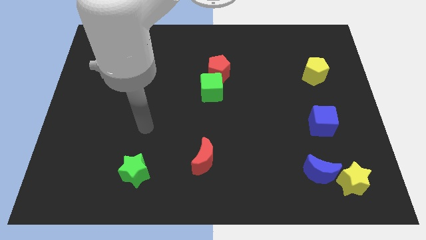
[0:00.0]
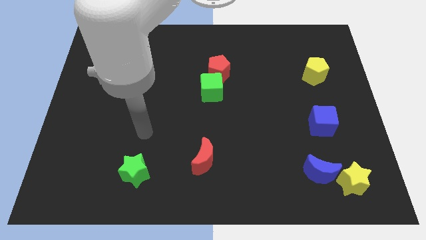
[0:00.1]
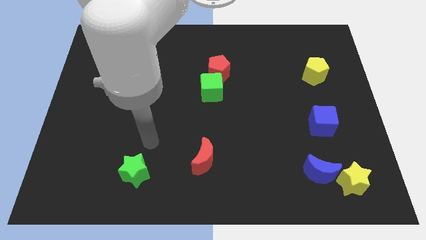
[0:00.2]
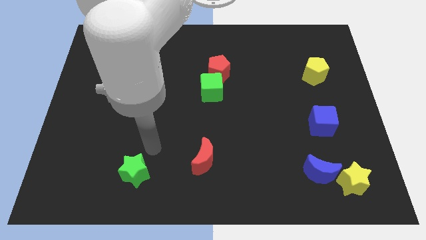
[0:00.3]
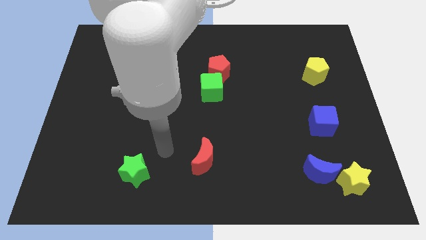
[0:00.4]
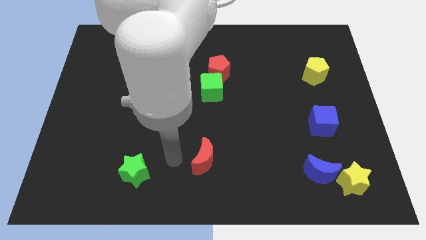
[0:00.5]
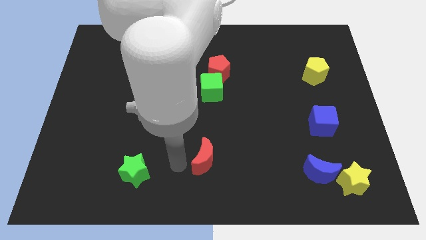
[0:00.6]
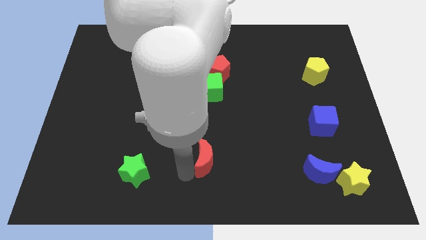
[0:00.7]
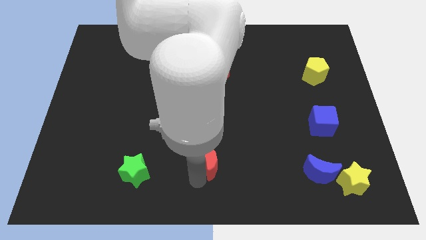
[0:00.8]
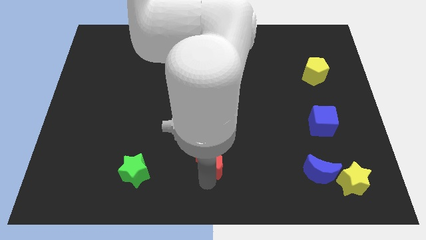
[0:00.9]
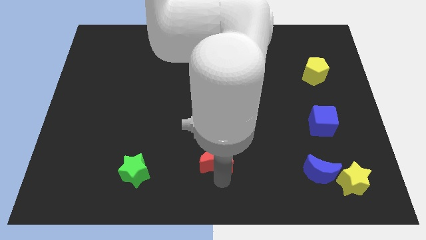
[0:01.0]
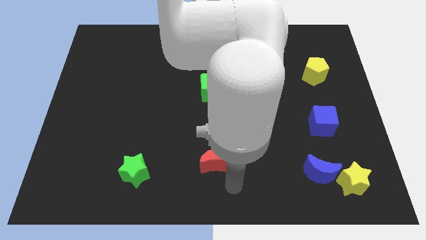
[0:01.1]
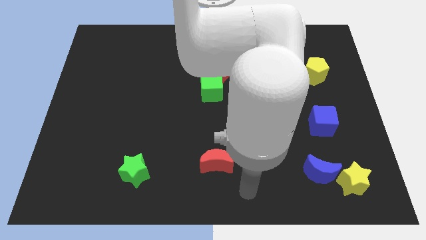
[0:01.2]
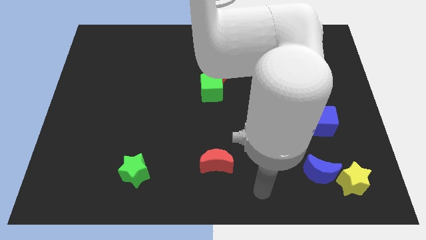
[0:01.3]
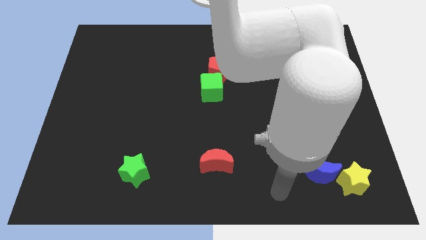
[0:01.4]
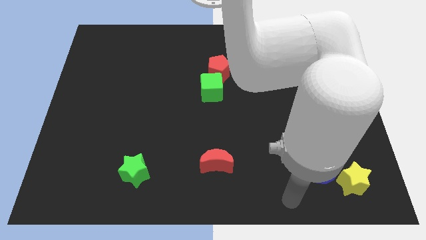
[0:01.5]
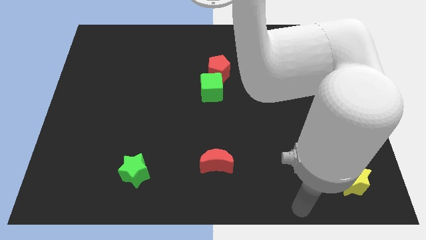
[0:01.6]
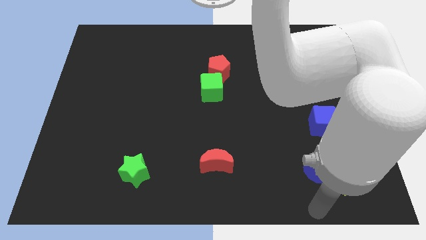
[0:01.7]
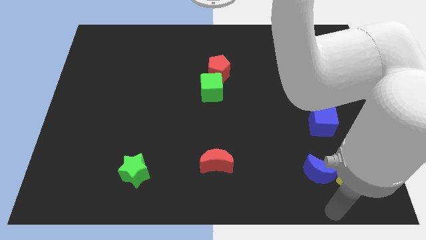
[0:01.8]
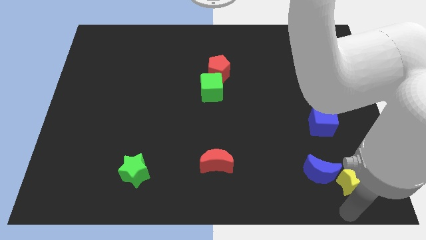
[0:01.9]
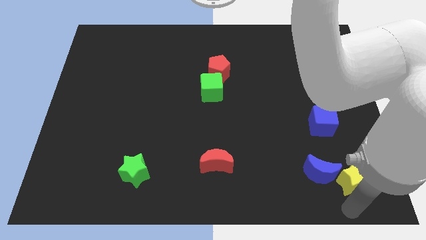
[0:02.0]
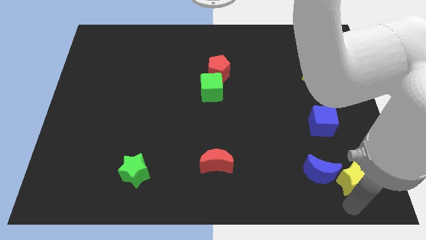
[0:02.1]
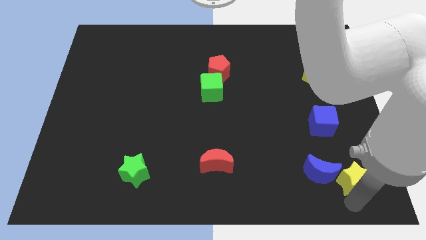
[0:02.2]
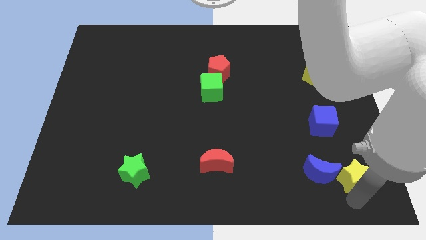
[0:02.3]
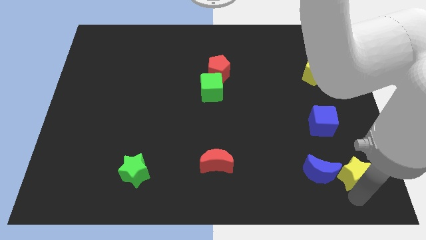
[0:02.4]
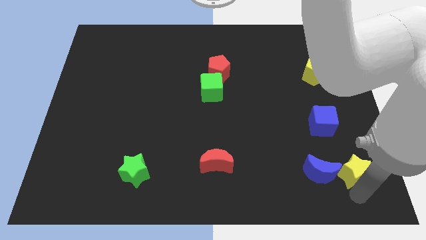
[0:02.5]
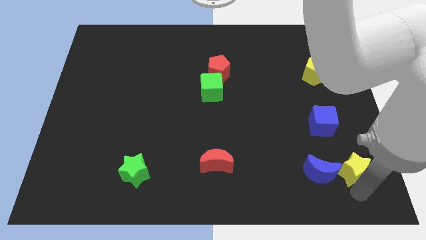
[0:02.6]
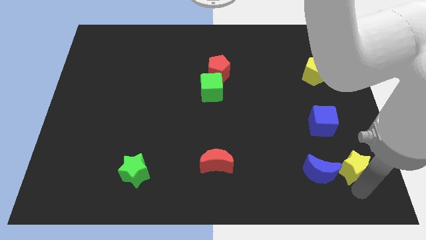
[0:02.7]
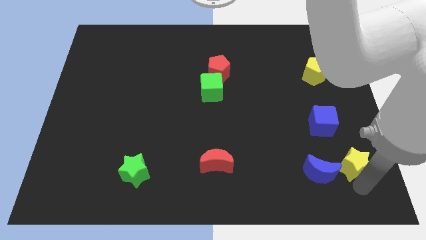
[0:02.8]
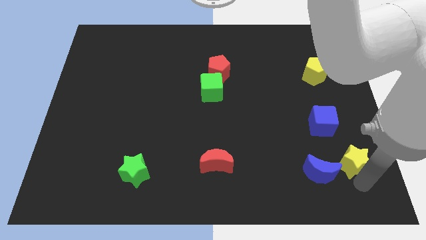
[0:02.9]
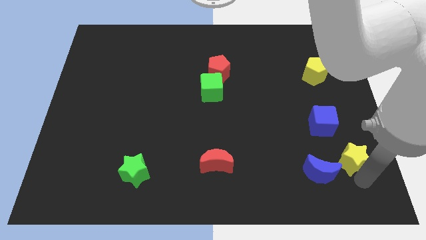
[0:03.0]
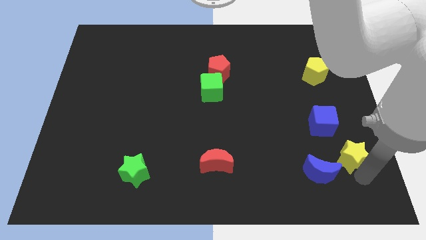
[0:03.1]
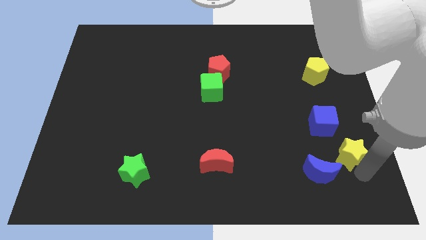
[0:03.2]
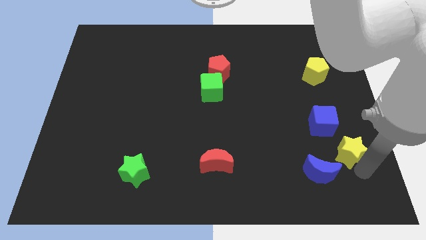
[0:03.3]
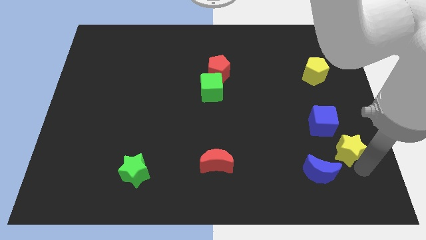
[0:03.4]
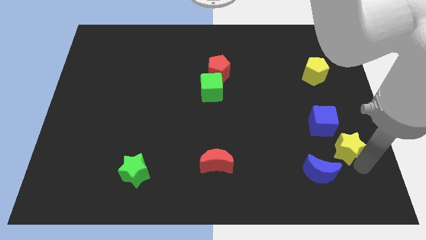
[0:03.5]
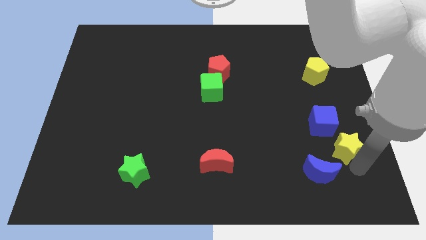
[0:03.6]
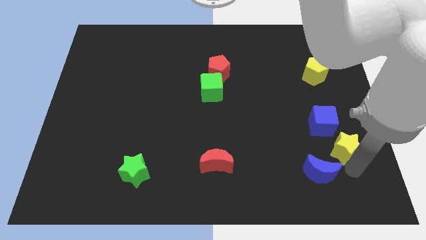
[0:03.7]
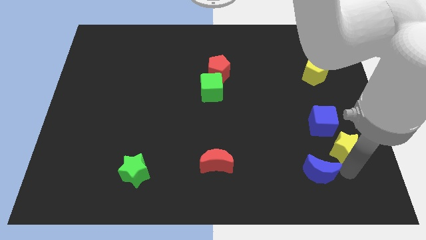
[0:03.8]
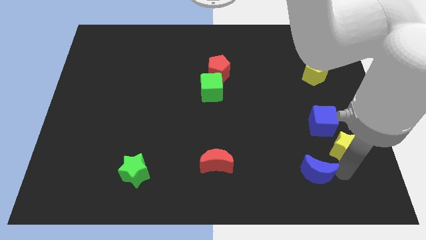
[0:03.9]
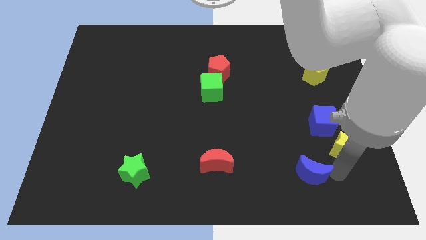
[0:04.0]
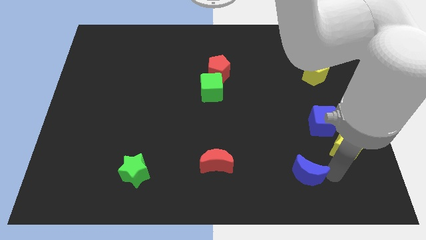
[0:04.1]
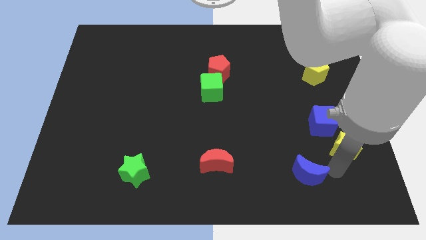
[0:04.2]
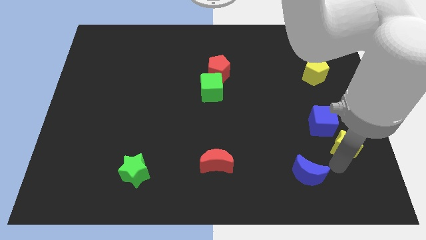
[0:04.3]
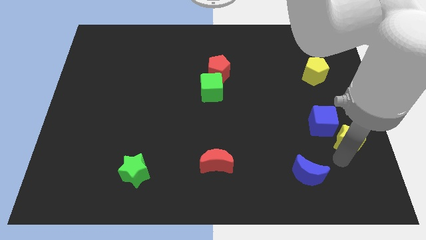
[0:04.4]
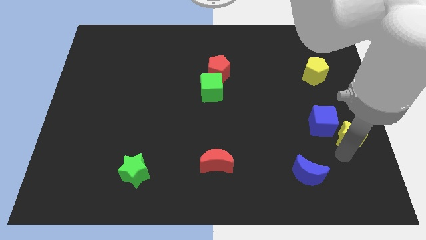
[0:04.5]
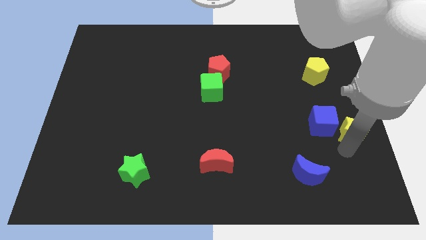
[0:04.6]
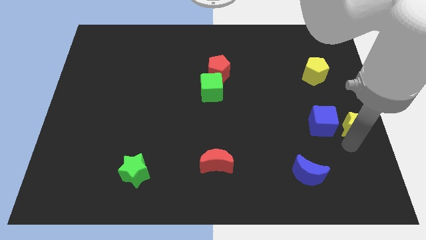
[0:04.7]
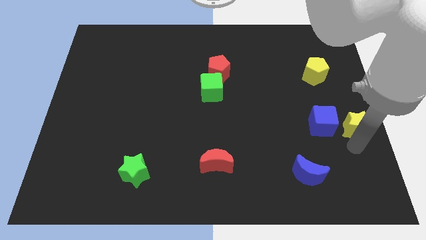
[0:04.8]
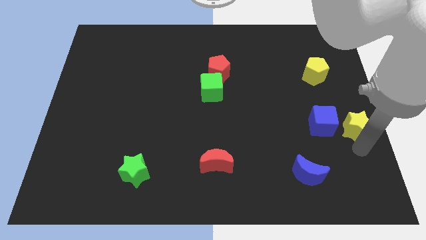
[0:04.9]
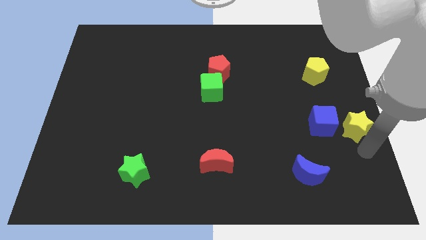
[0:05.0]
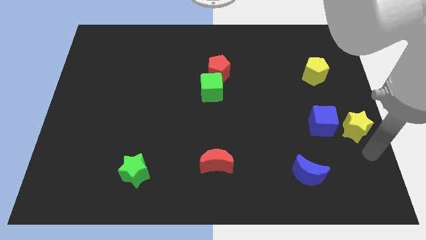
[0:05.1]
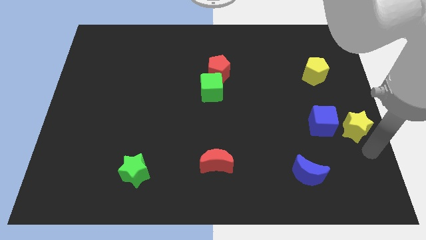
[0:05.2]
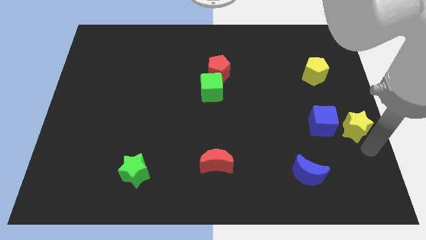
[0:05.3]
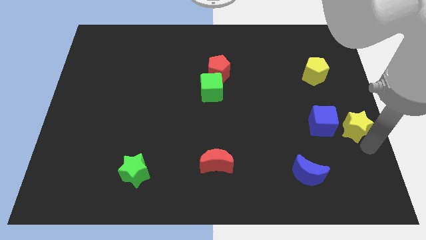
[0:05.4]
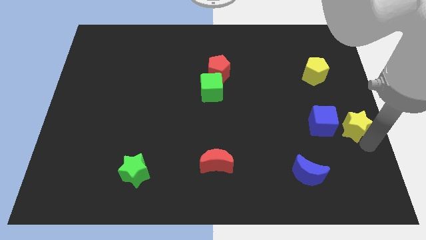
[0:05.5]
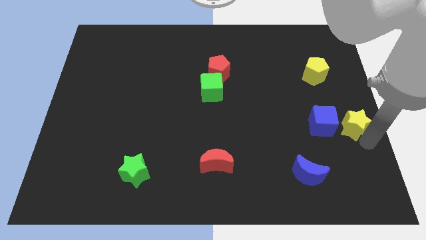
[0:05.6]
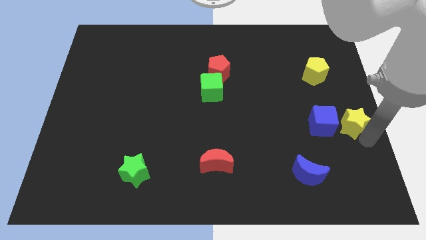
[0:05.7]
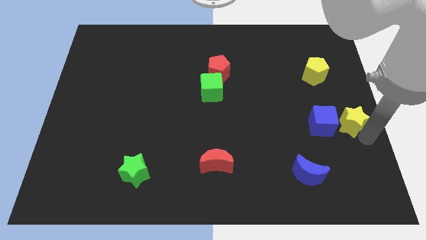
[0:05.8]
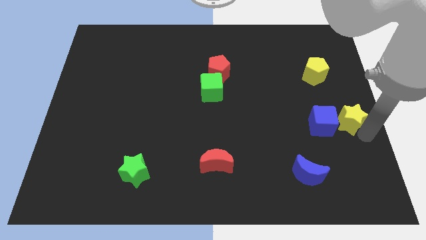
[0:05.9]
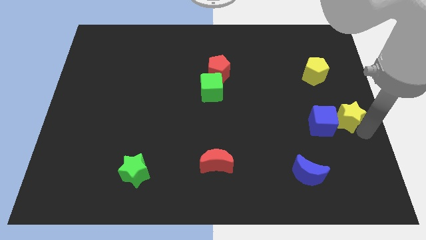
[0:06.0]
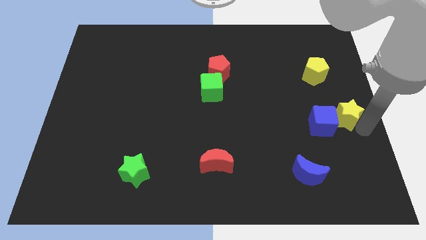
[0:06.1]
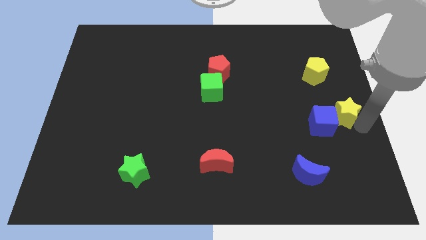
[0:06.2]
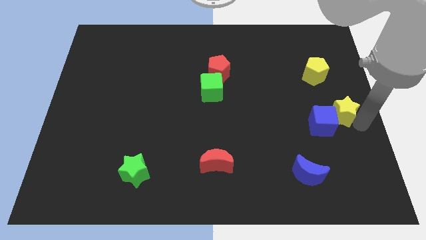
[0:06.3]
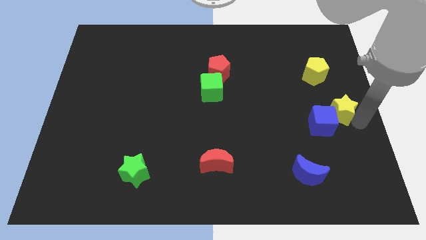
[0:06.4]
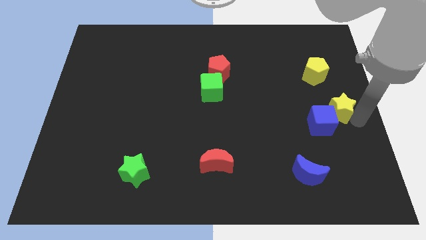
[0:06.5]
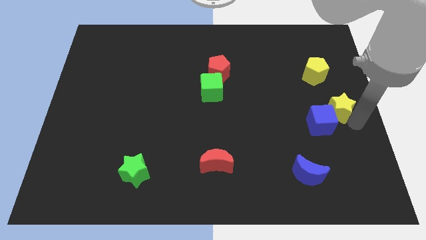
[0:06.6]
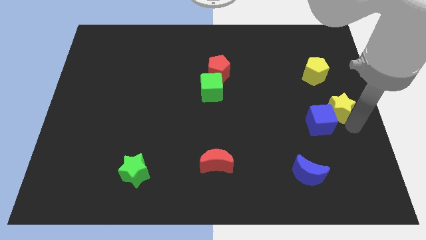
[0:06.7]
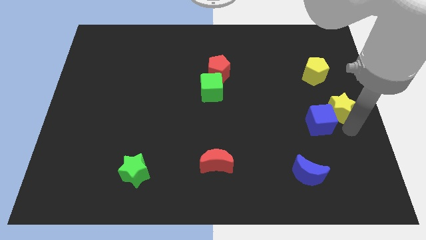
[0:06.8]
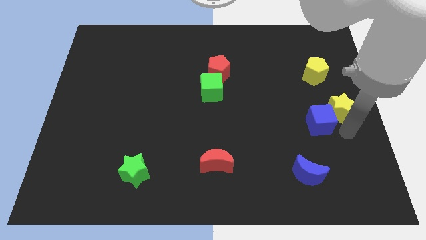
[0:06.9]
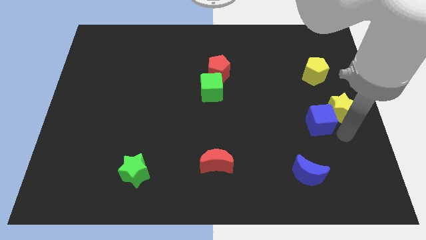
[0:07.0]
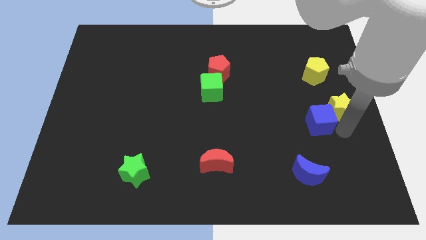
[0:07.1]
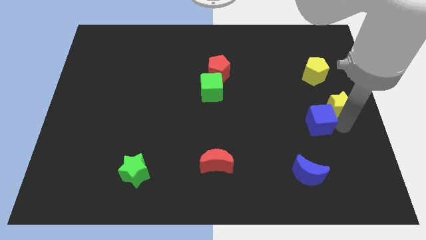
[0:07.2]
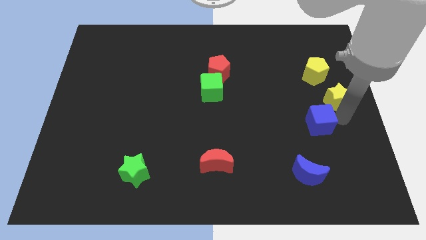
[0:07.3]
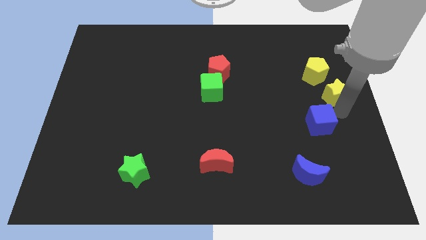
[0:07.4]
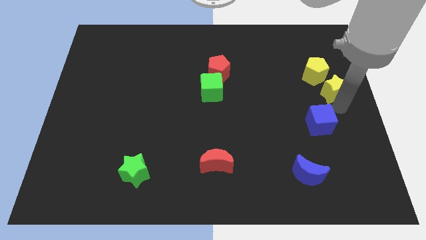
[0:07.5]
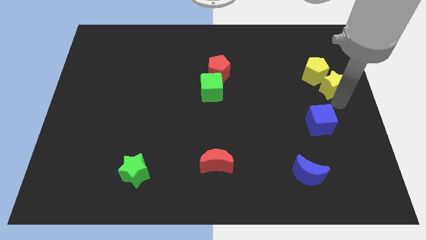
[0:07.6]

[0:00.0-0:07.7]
move the yellow star next to the yellow pentagon
